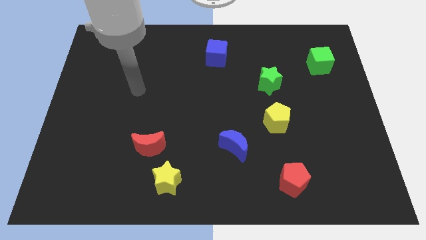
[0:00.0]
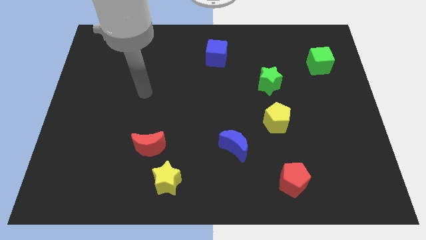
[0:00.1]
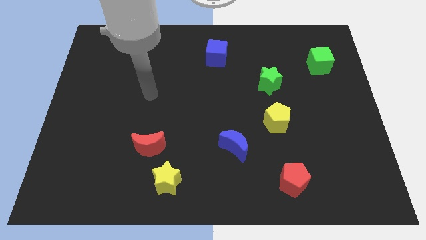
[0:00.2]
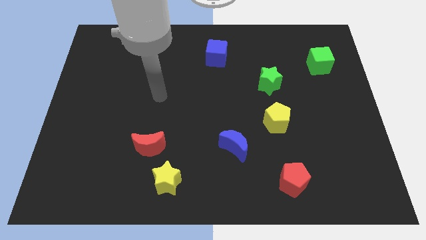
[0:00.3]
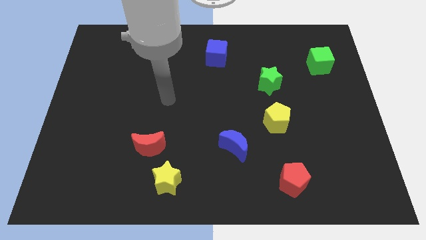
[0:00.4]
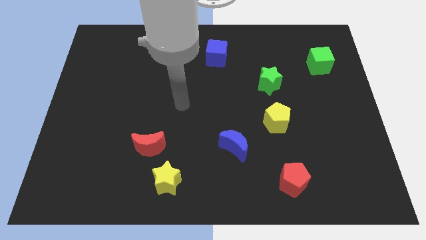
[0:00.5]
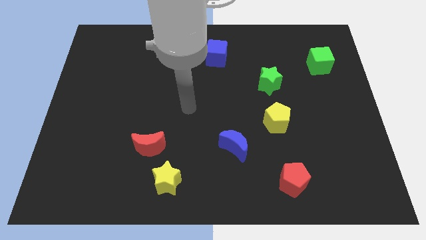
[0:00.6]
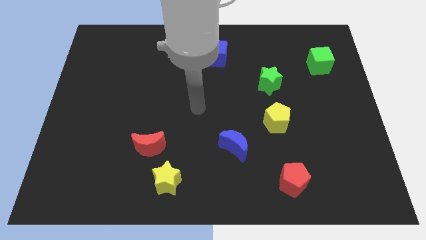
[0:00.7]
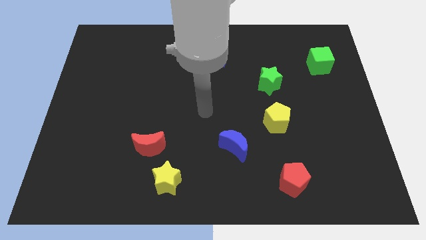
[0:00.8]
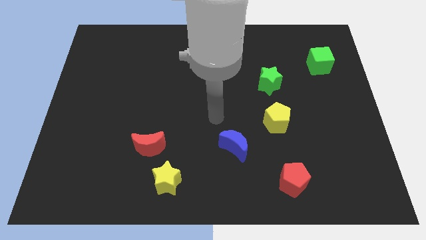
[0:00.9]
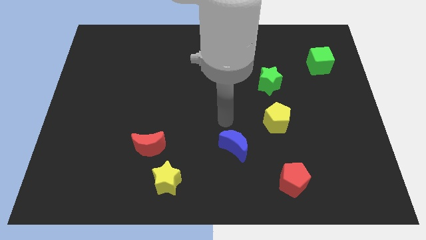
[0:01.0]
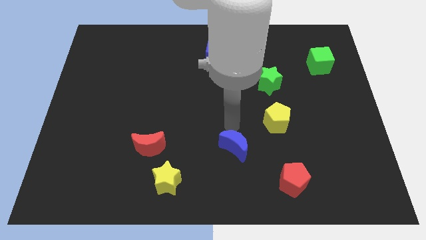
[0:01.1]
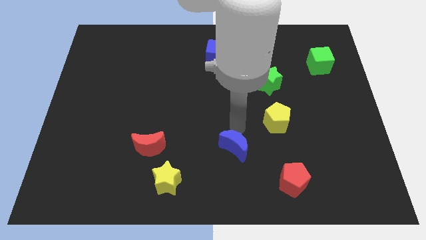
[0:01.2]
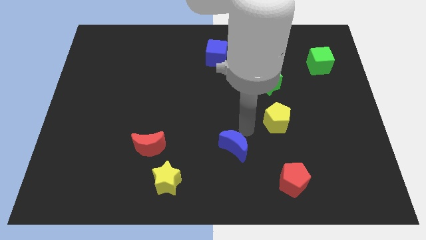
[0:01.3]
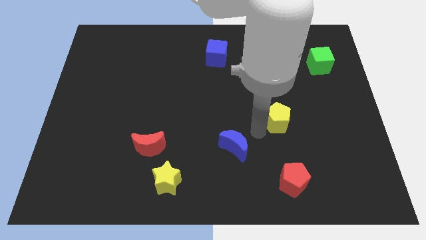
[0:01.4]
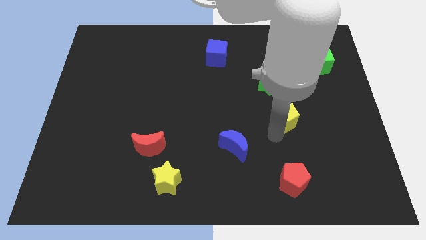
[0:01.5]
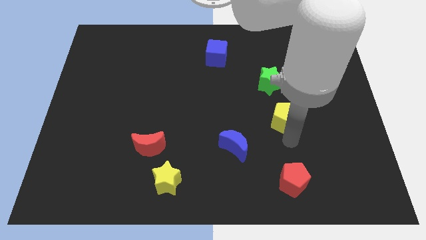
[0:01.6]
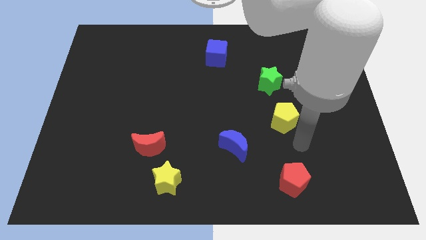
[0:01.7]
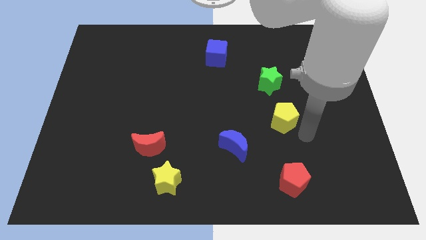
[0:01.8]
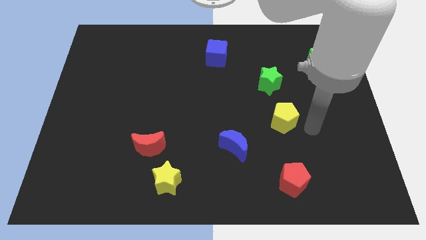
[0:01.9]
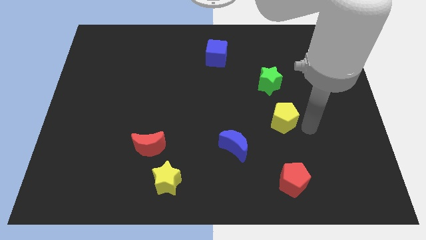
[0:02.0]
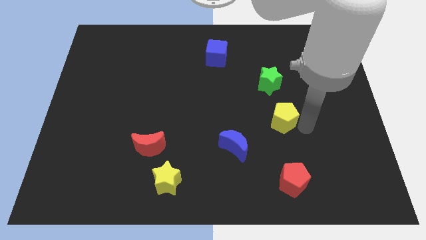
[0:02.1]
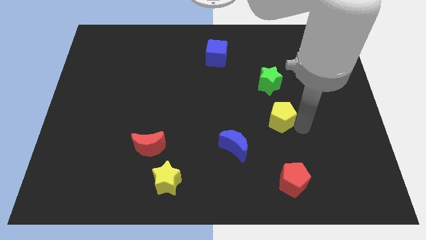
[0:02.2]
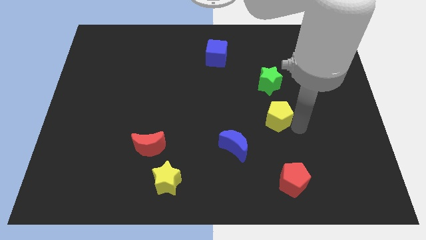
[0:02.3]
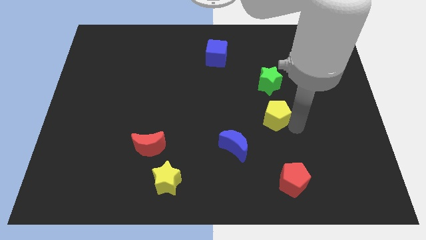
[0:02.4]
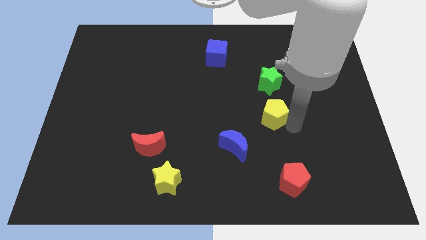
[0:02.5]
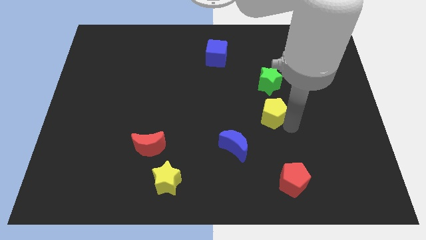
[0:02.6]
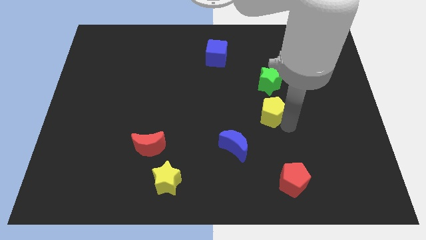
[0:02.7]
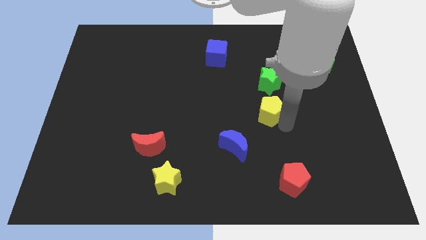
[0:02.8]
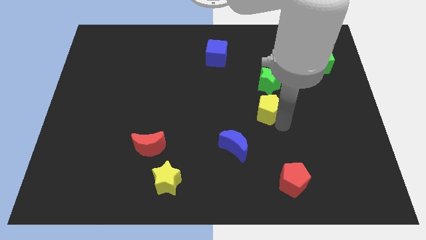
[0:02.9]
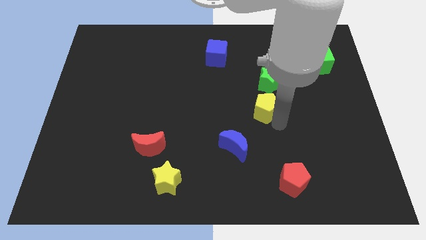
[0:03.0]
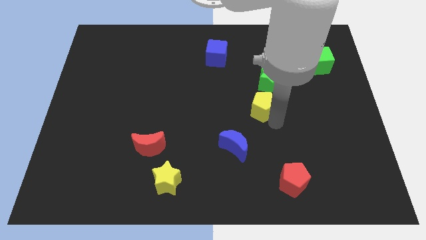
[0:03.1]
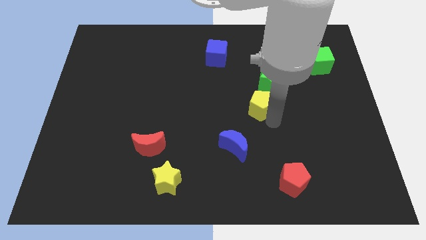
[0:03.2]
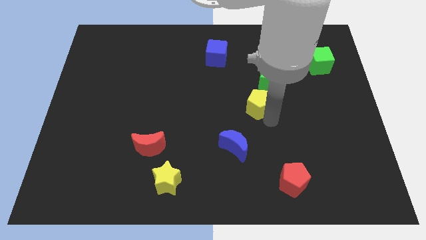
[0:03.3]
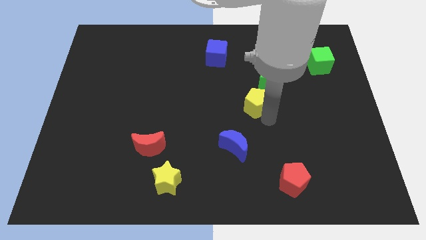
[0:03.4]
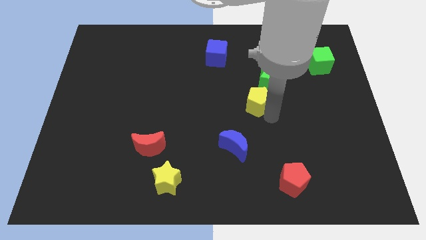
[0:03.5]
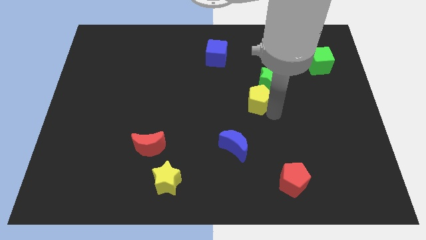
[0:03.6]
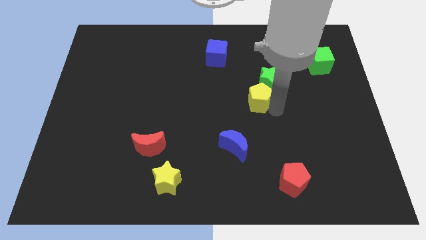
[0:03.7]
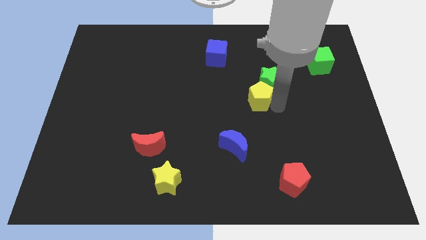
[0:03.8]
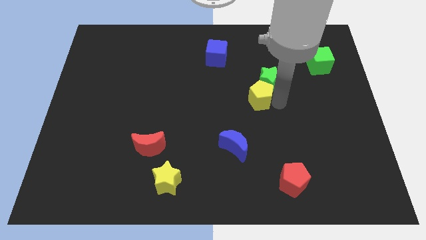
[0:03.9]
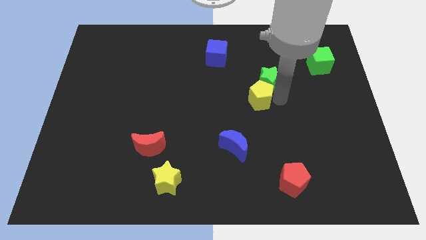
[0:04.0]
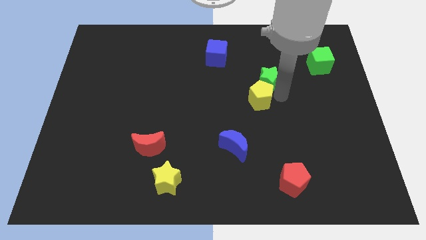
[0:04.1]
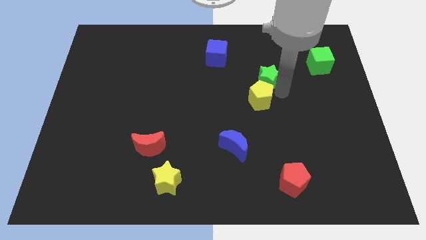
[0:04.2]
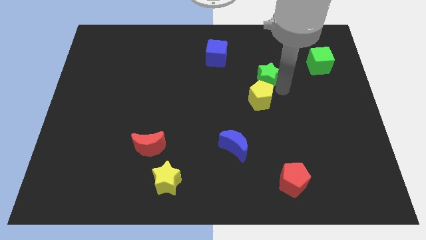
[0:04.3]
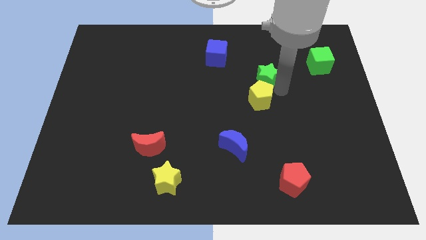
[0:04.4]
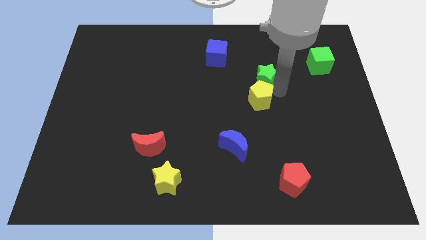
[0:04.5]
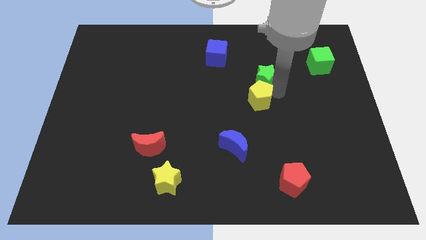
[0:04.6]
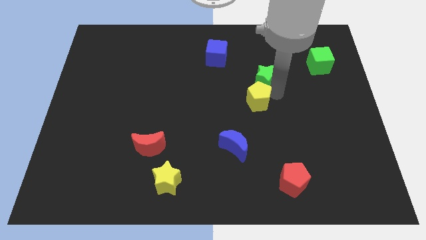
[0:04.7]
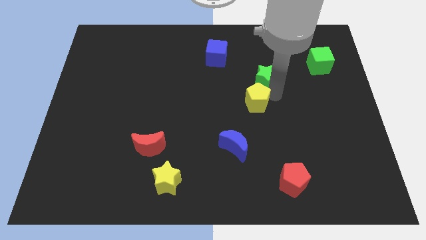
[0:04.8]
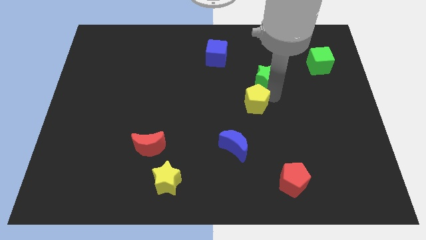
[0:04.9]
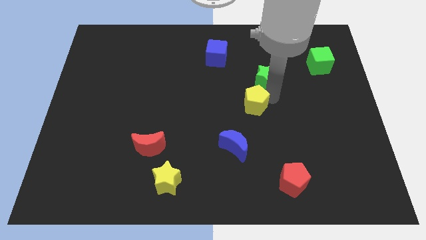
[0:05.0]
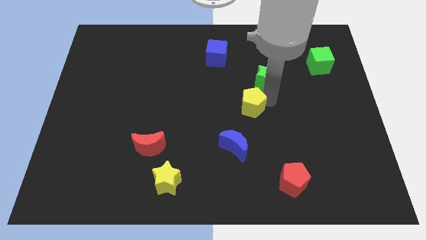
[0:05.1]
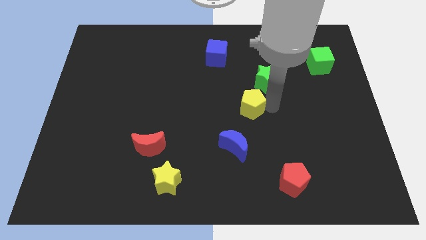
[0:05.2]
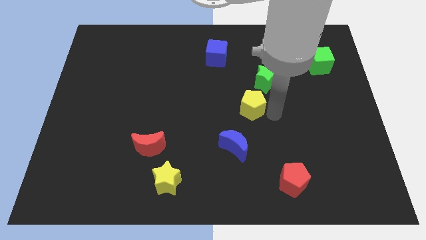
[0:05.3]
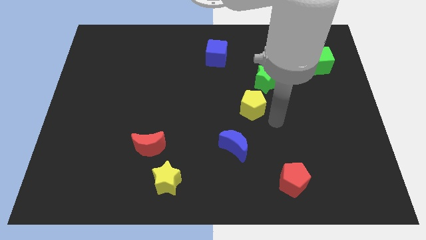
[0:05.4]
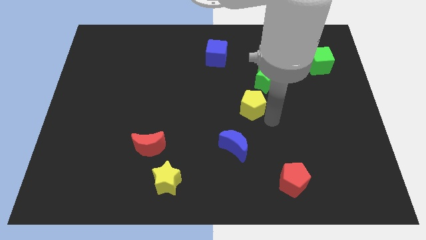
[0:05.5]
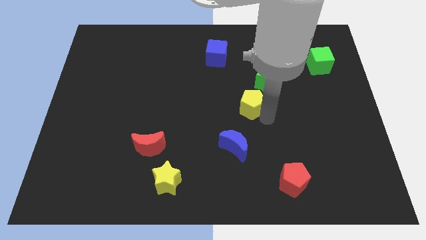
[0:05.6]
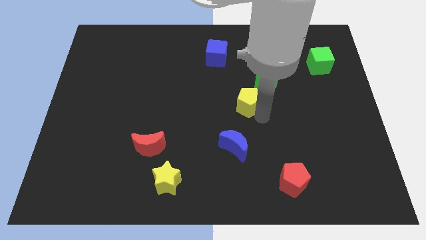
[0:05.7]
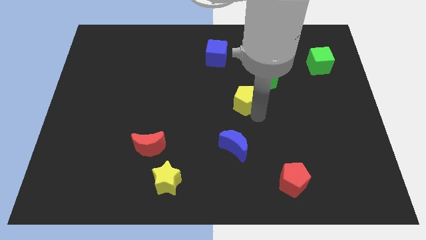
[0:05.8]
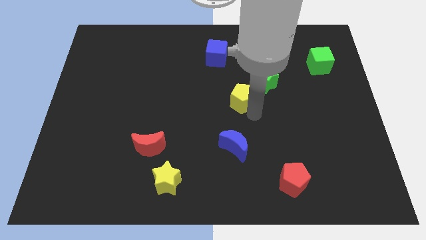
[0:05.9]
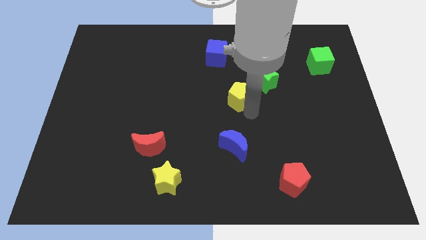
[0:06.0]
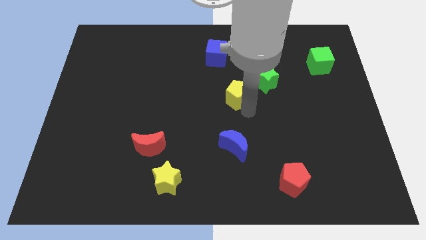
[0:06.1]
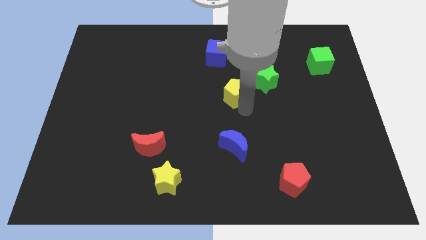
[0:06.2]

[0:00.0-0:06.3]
move the yellow pentagon to the bottom of the blue cube

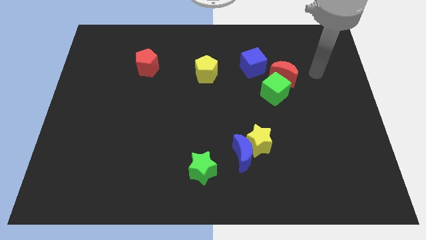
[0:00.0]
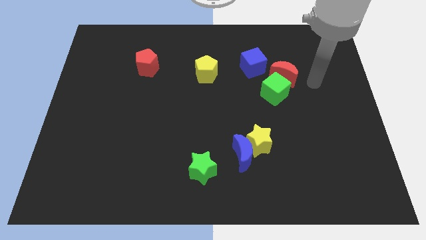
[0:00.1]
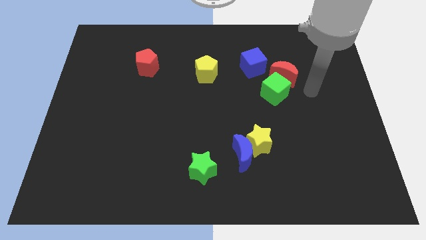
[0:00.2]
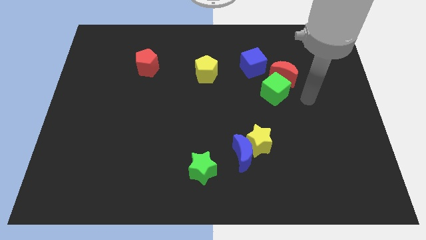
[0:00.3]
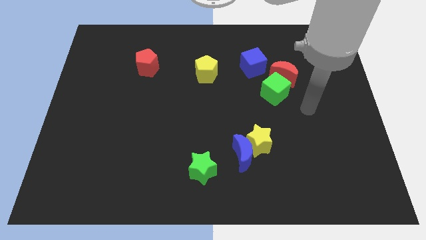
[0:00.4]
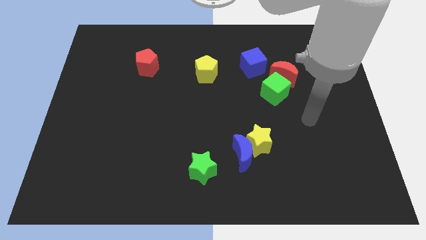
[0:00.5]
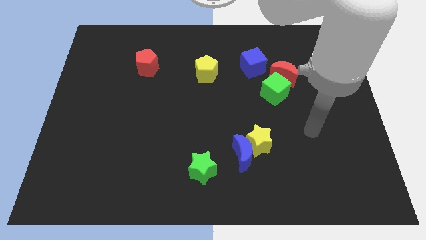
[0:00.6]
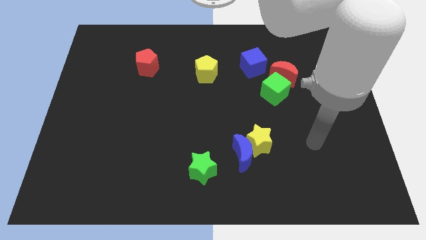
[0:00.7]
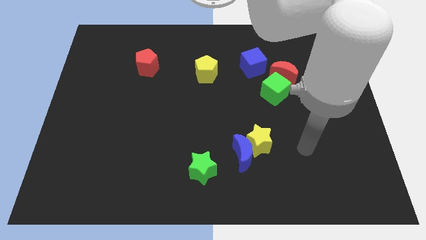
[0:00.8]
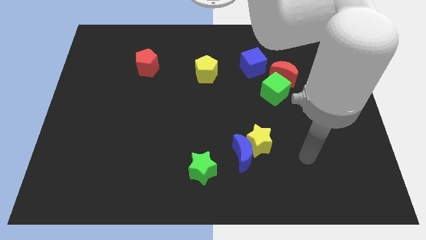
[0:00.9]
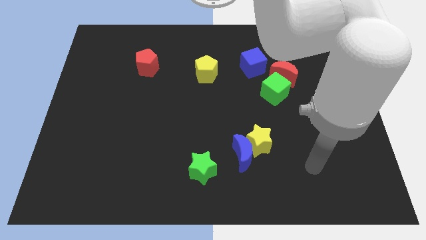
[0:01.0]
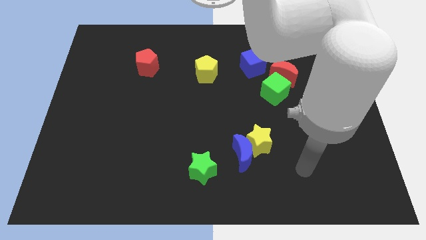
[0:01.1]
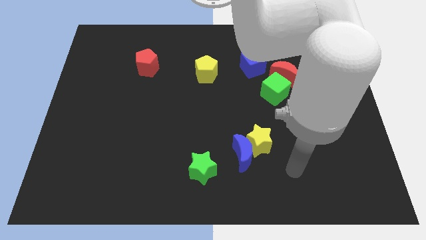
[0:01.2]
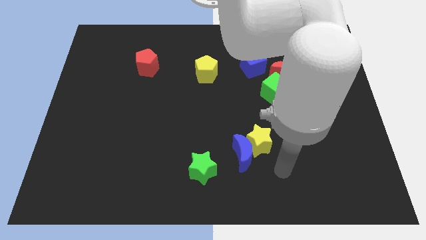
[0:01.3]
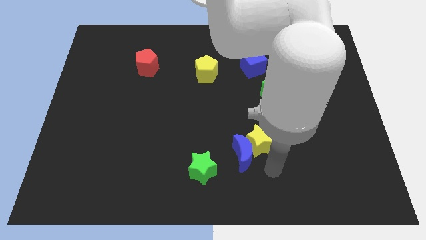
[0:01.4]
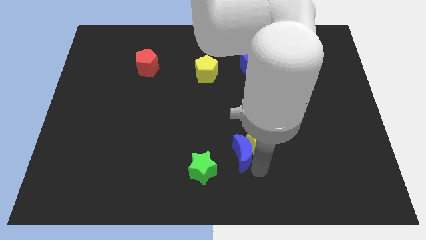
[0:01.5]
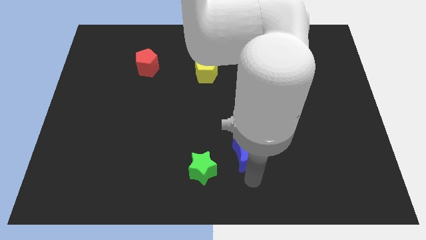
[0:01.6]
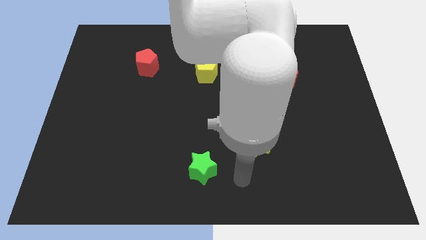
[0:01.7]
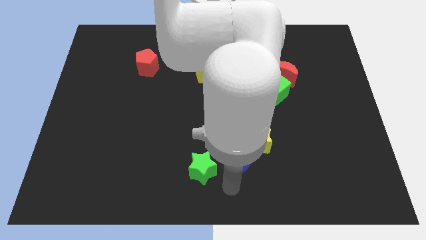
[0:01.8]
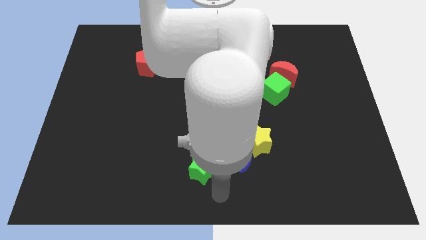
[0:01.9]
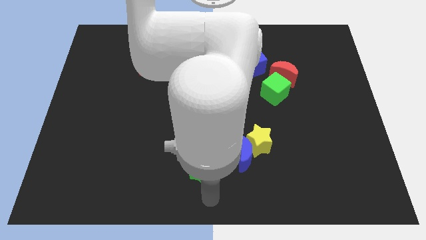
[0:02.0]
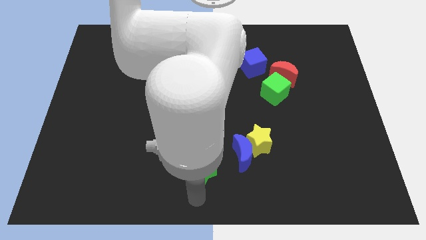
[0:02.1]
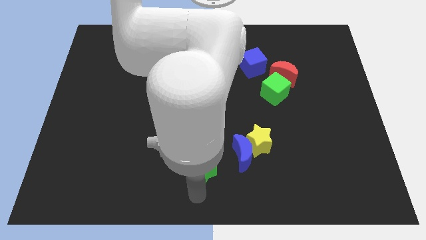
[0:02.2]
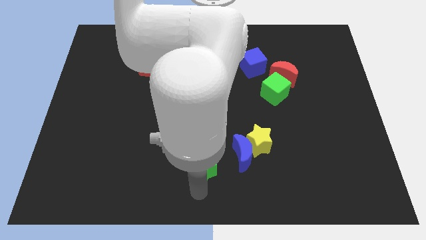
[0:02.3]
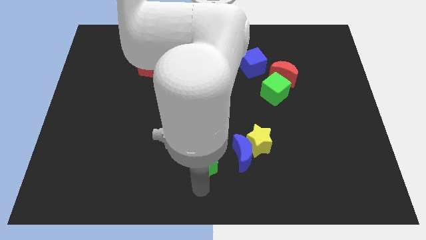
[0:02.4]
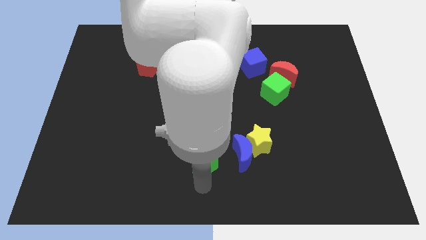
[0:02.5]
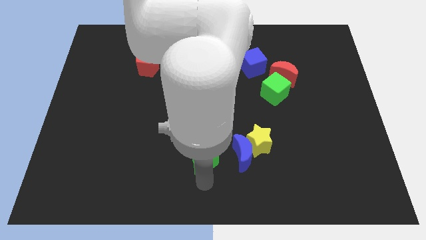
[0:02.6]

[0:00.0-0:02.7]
slide the green star to the left side of the yellow star
